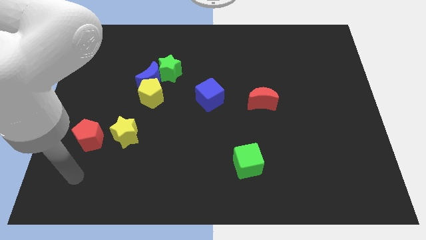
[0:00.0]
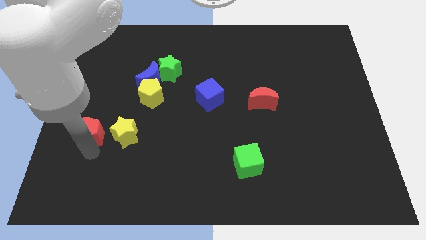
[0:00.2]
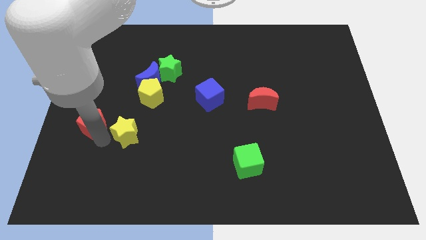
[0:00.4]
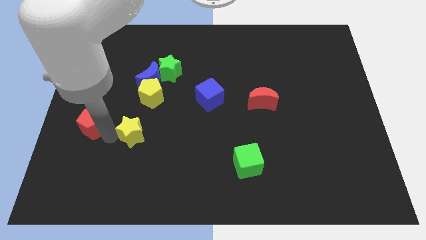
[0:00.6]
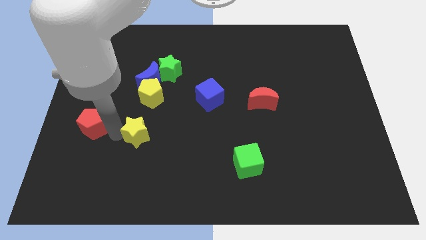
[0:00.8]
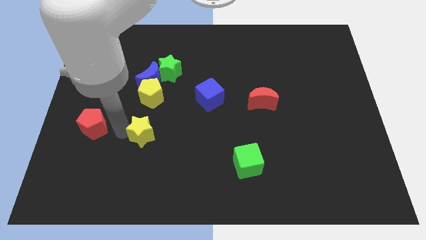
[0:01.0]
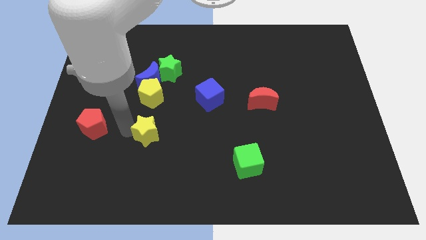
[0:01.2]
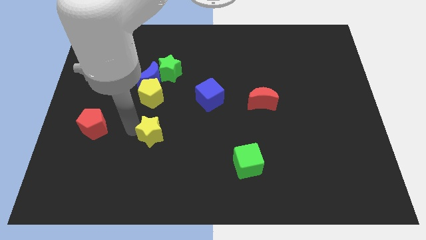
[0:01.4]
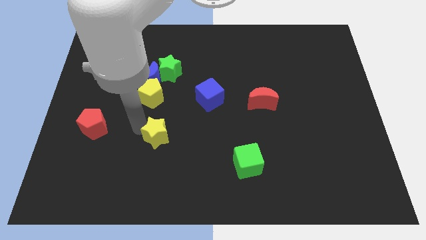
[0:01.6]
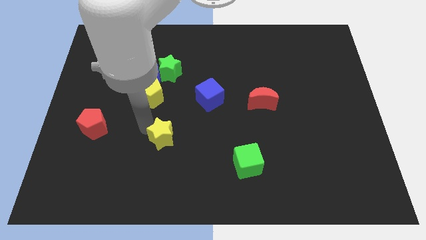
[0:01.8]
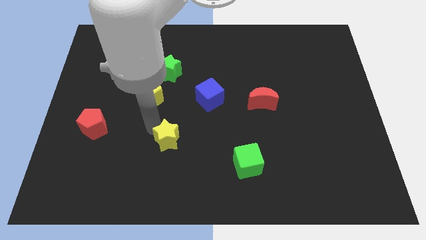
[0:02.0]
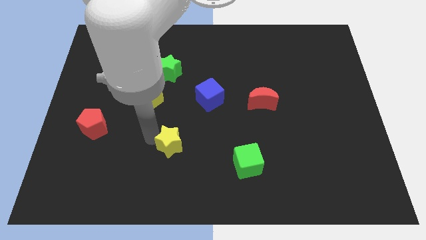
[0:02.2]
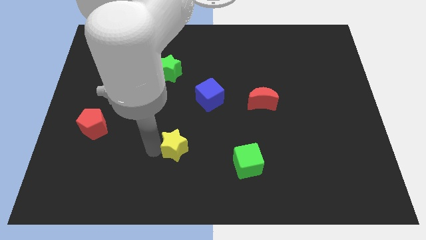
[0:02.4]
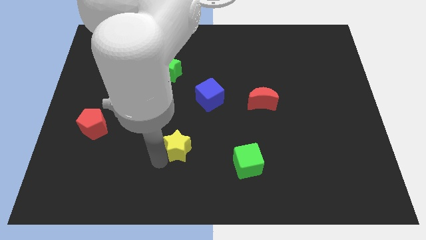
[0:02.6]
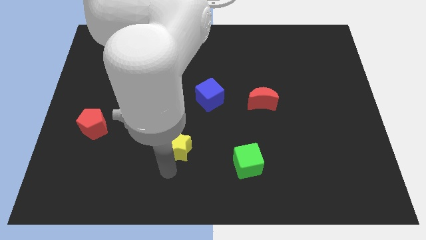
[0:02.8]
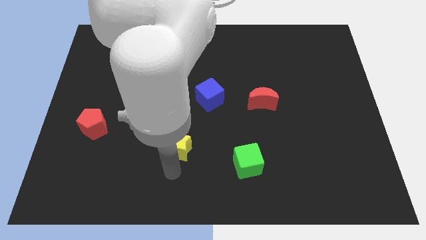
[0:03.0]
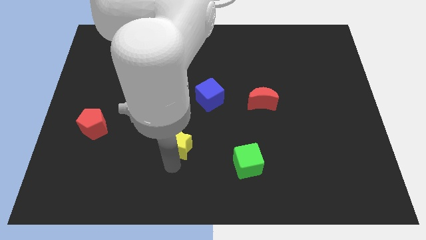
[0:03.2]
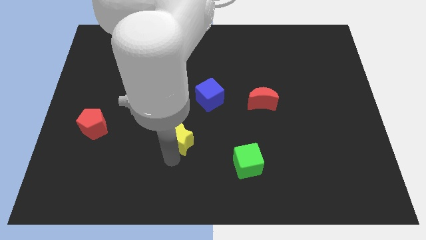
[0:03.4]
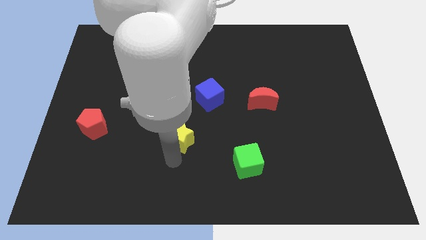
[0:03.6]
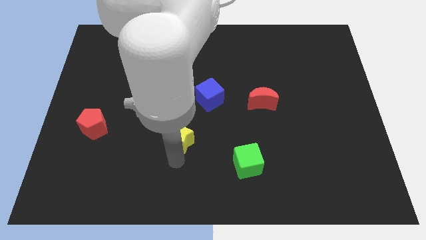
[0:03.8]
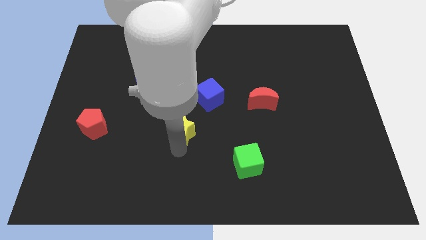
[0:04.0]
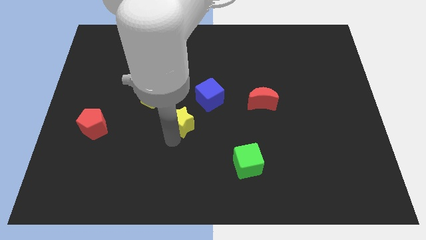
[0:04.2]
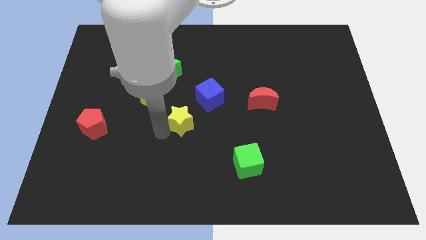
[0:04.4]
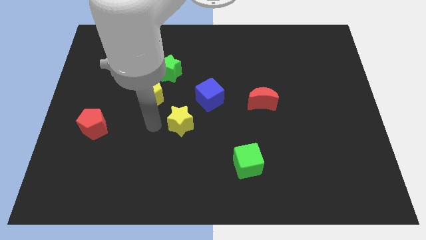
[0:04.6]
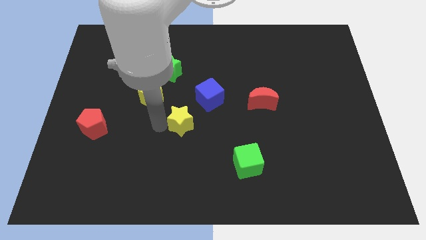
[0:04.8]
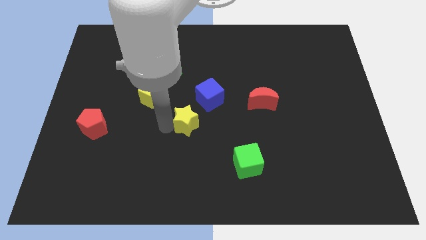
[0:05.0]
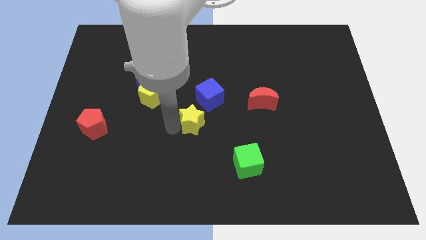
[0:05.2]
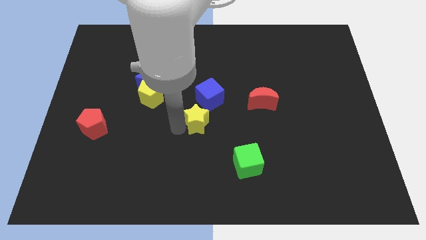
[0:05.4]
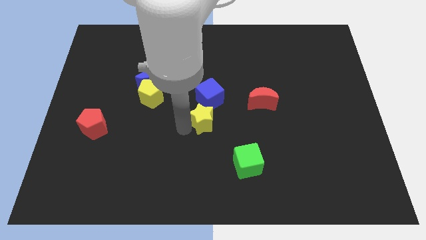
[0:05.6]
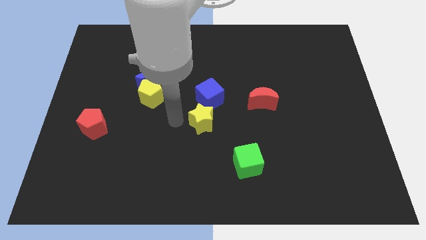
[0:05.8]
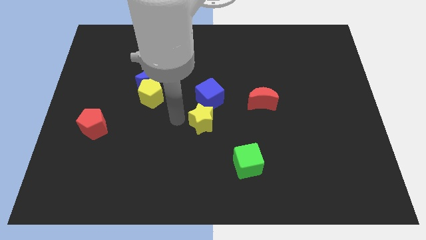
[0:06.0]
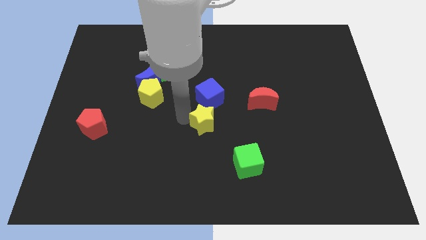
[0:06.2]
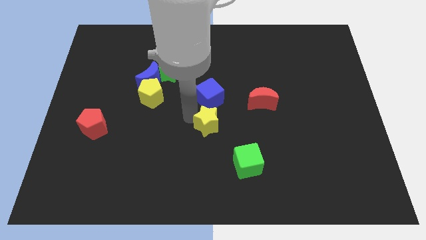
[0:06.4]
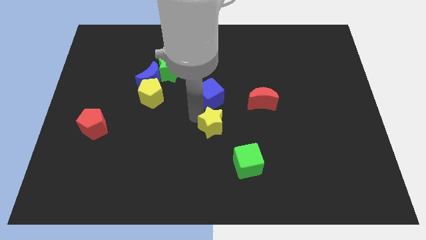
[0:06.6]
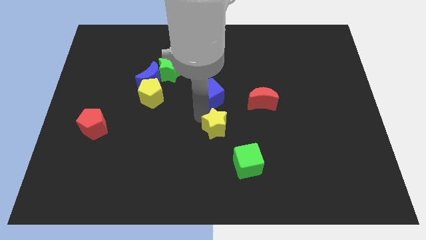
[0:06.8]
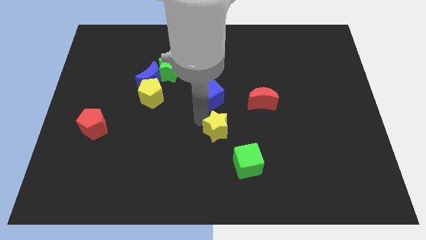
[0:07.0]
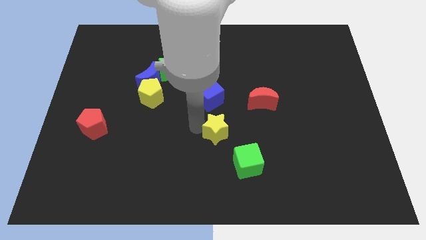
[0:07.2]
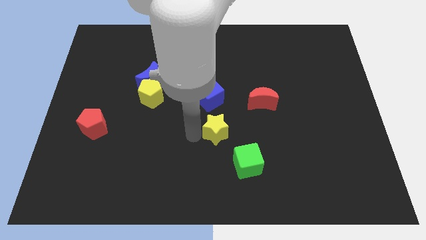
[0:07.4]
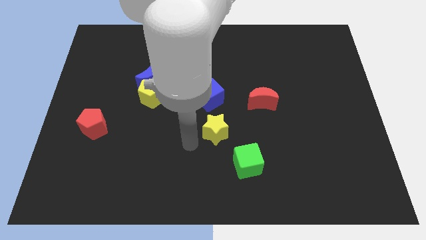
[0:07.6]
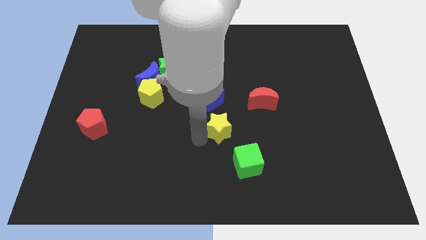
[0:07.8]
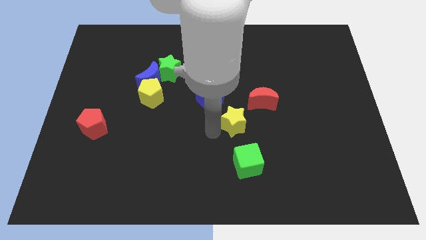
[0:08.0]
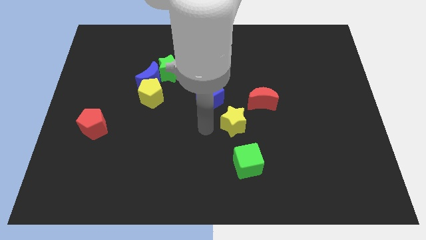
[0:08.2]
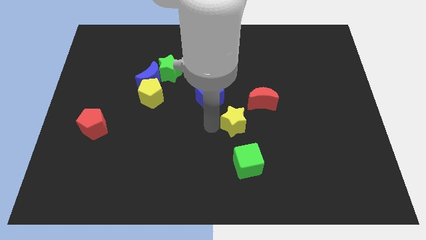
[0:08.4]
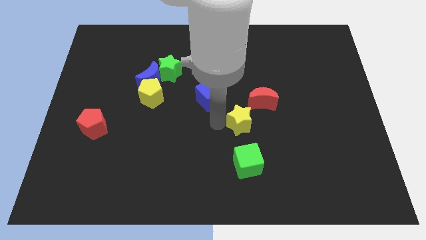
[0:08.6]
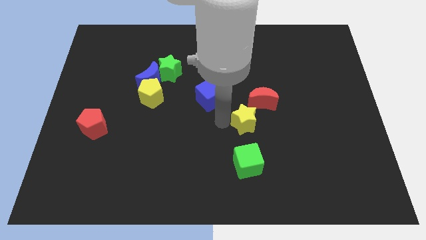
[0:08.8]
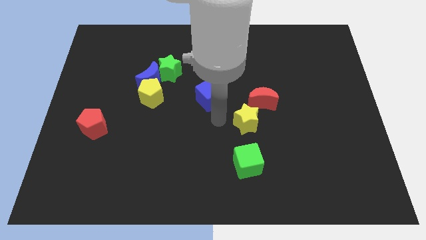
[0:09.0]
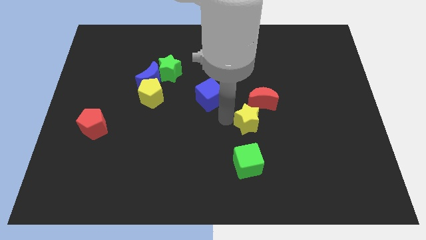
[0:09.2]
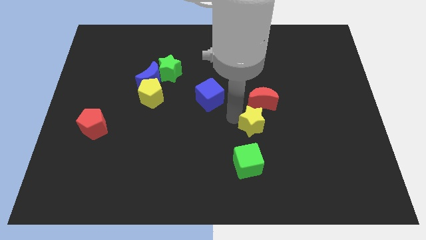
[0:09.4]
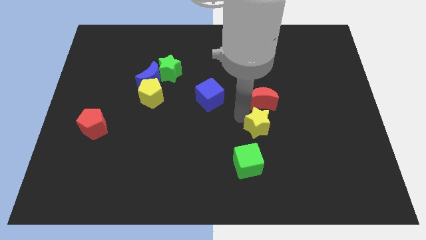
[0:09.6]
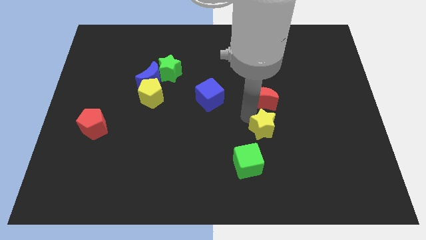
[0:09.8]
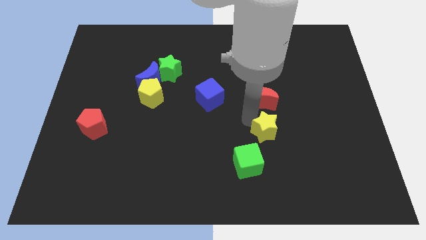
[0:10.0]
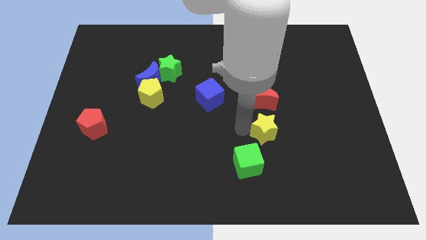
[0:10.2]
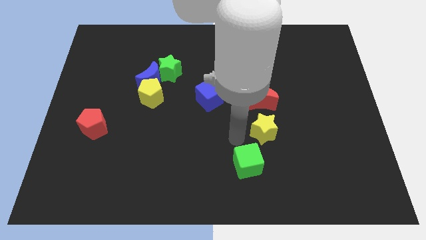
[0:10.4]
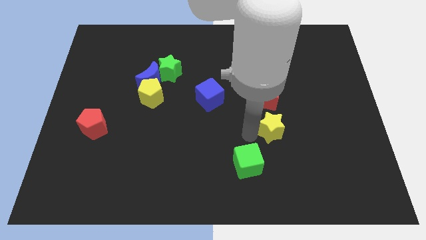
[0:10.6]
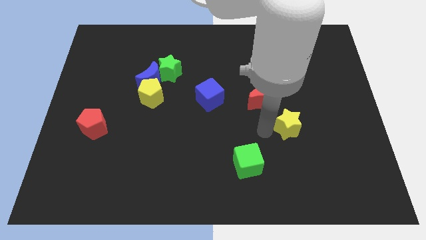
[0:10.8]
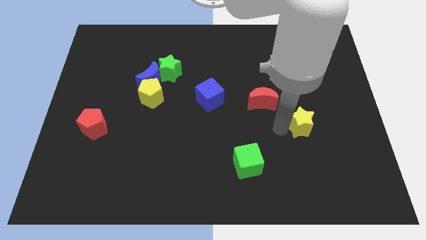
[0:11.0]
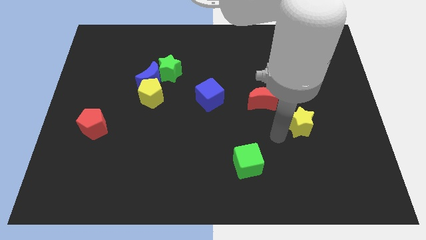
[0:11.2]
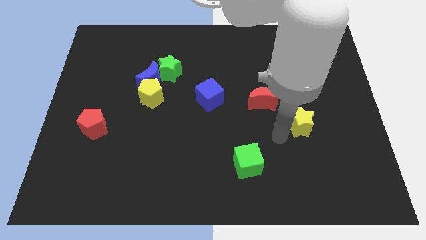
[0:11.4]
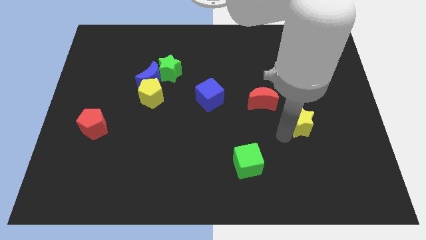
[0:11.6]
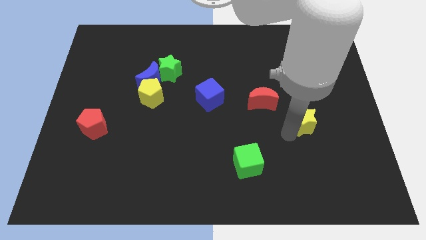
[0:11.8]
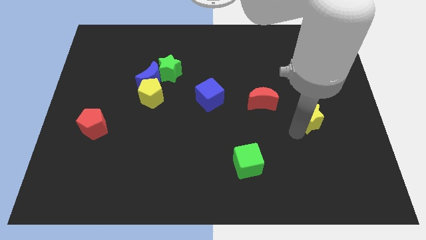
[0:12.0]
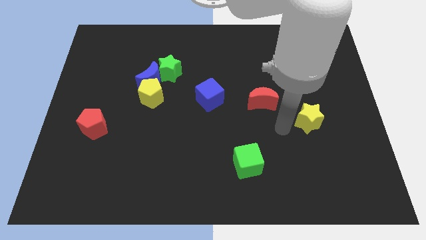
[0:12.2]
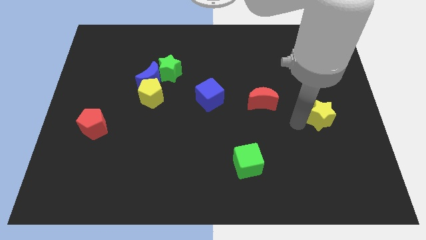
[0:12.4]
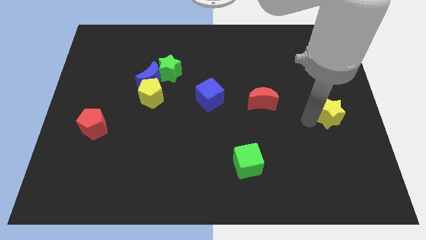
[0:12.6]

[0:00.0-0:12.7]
slide the yellow star to the right side of the board

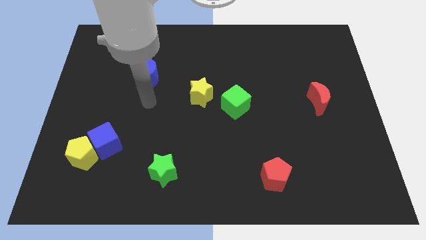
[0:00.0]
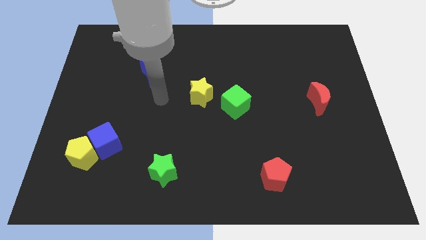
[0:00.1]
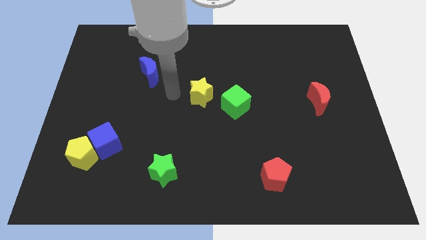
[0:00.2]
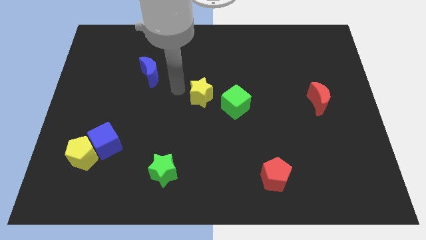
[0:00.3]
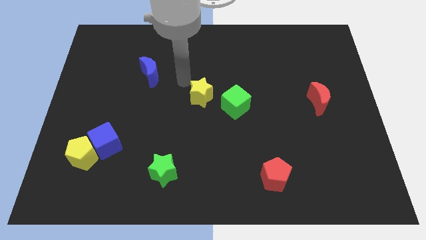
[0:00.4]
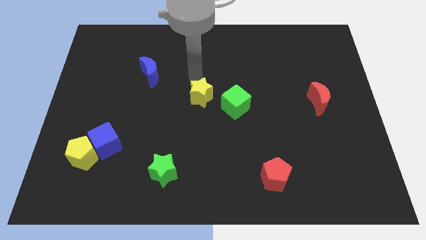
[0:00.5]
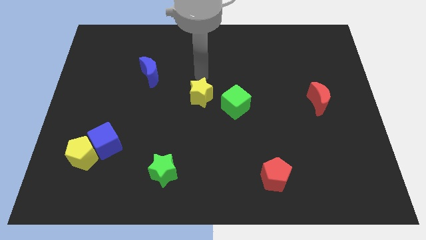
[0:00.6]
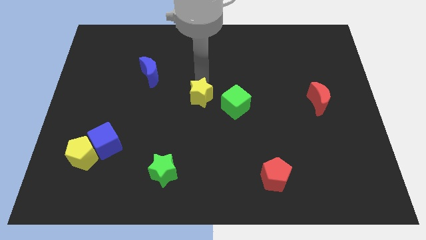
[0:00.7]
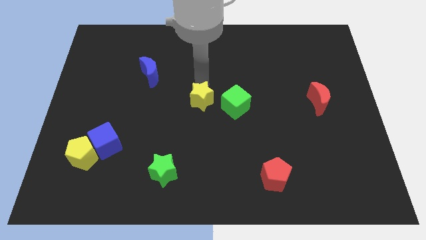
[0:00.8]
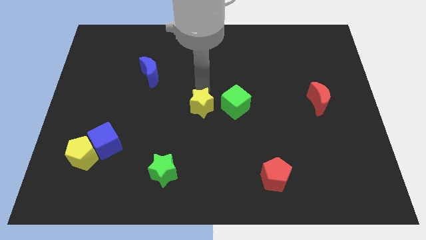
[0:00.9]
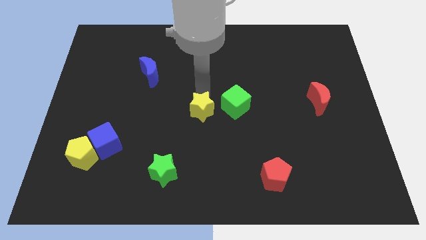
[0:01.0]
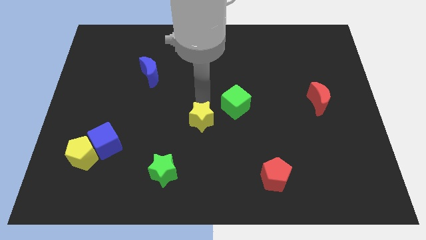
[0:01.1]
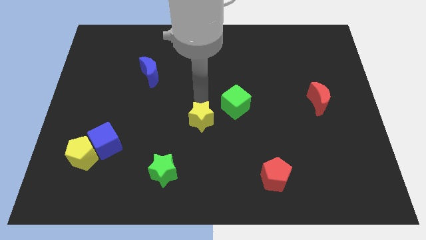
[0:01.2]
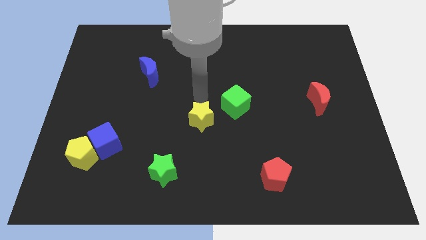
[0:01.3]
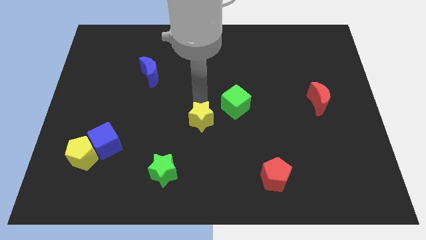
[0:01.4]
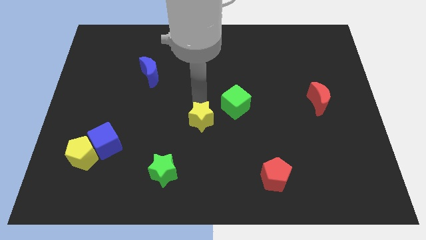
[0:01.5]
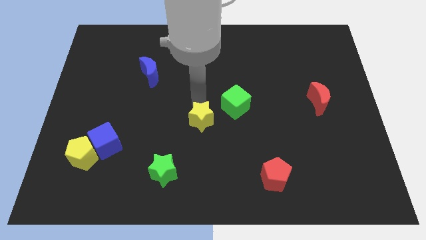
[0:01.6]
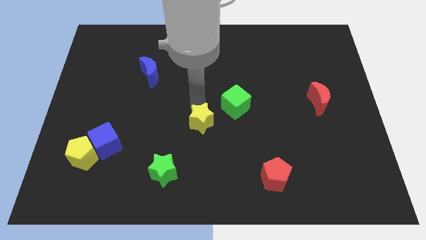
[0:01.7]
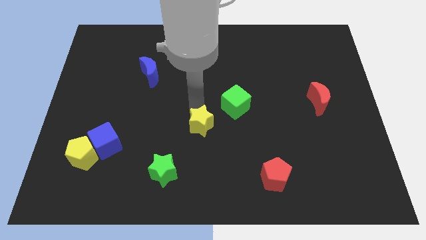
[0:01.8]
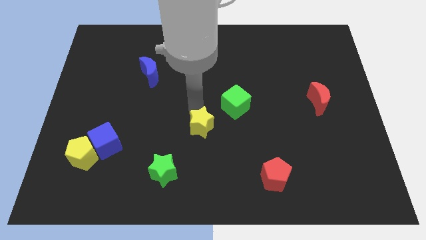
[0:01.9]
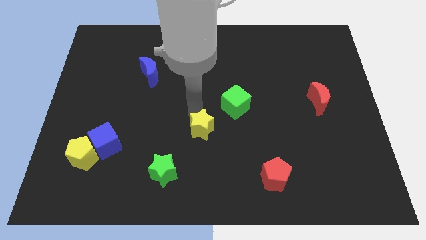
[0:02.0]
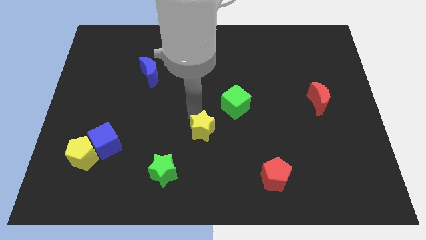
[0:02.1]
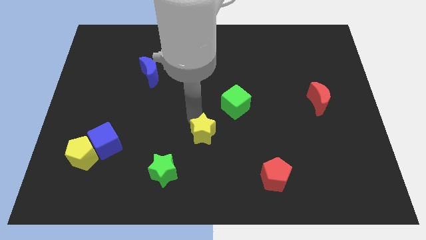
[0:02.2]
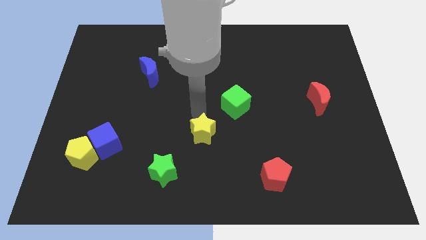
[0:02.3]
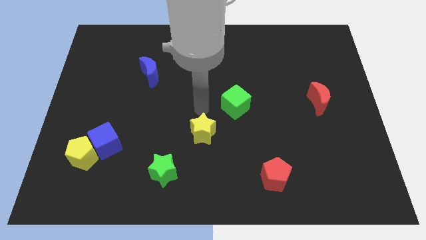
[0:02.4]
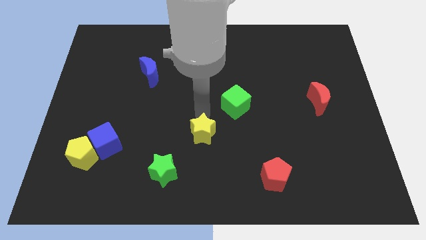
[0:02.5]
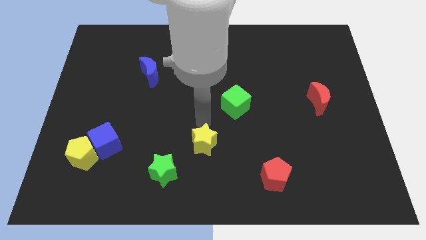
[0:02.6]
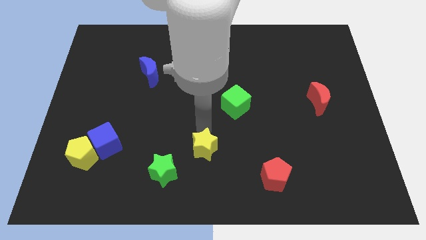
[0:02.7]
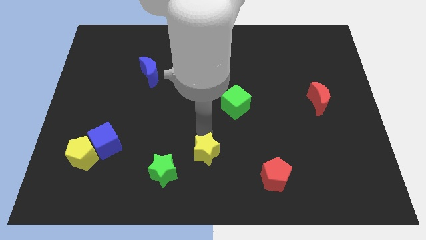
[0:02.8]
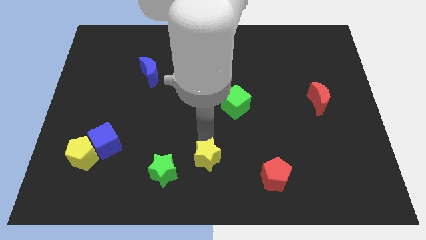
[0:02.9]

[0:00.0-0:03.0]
put the yellow star to the bottom side
